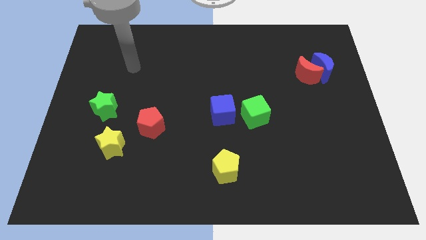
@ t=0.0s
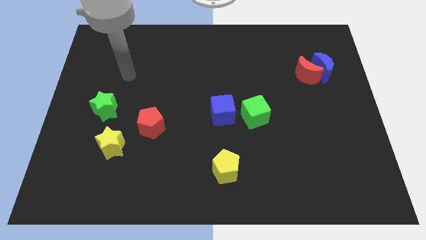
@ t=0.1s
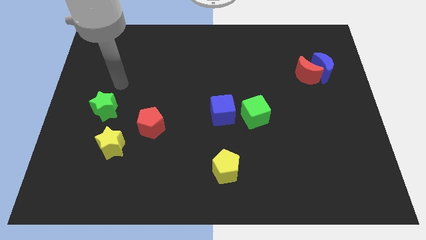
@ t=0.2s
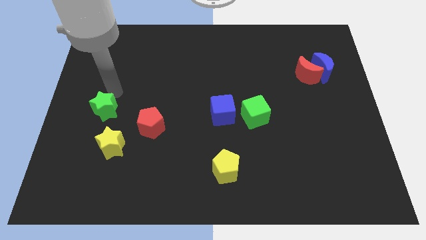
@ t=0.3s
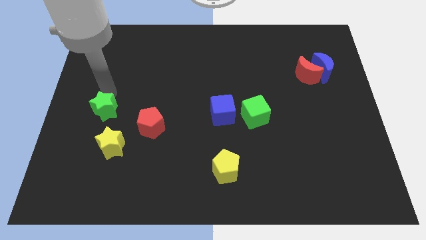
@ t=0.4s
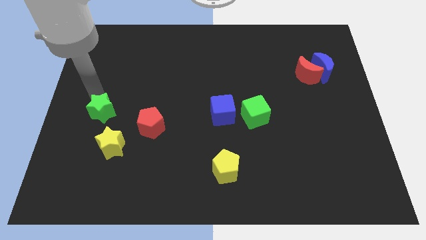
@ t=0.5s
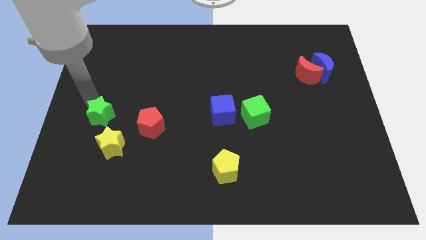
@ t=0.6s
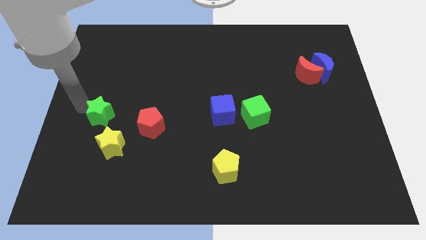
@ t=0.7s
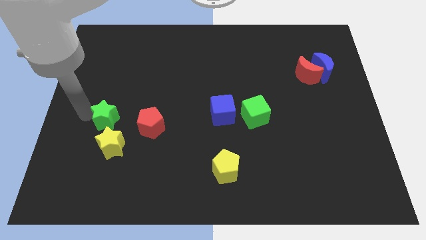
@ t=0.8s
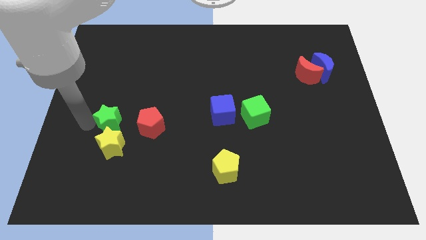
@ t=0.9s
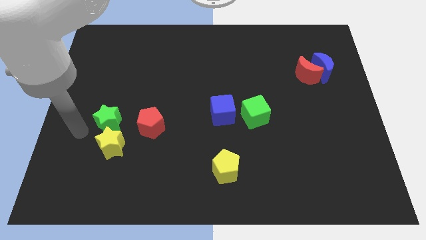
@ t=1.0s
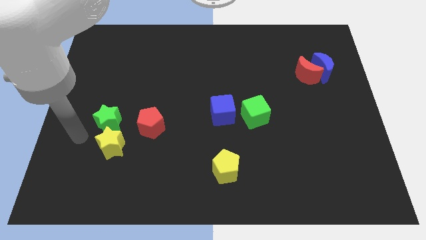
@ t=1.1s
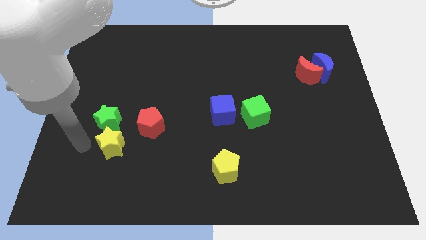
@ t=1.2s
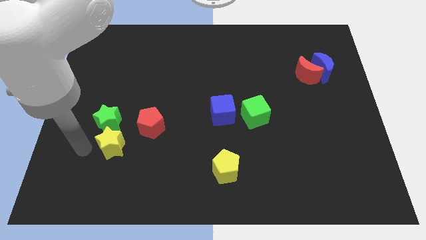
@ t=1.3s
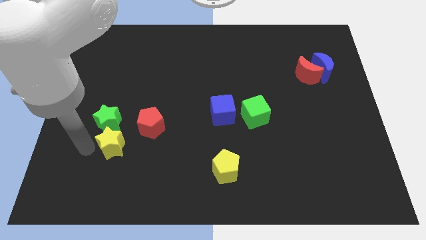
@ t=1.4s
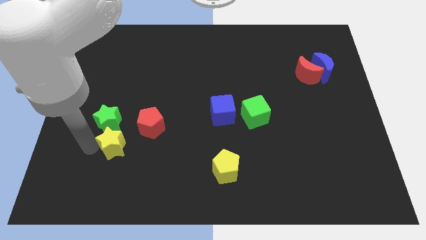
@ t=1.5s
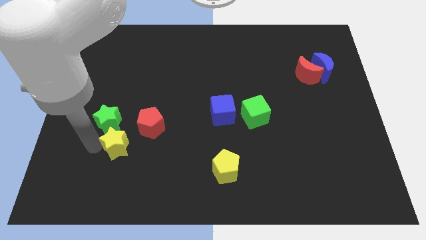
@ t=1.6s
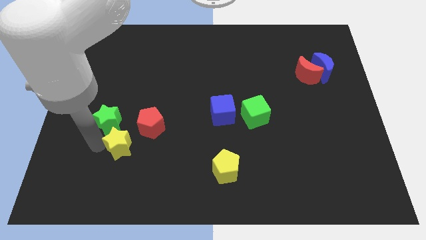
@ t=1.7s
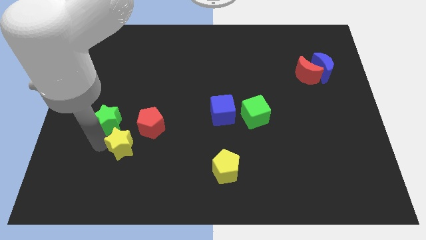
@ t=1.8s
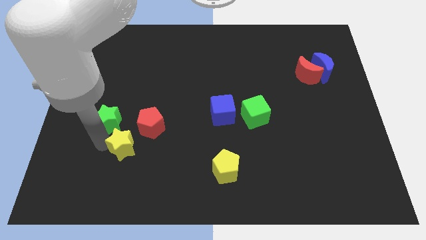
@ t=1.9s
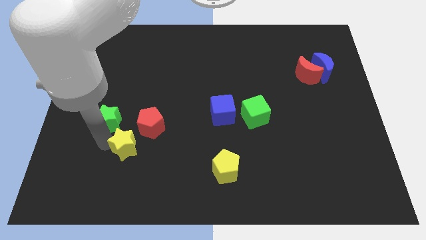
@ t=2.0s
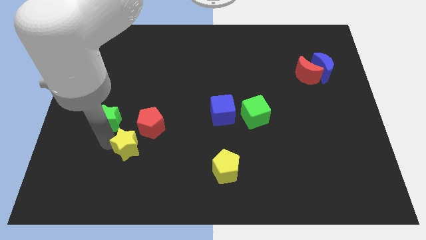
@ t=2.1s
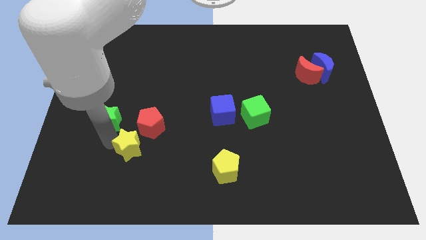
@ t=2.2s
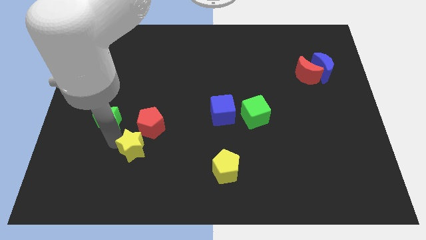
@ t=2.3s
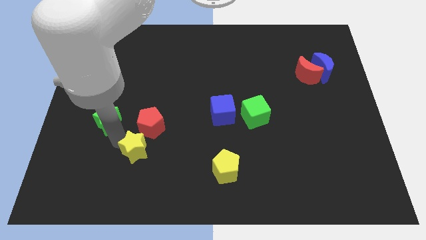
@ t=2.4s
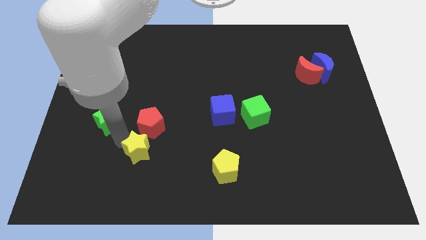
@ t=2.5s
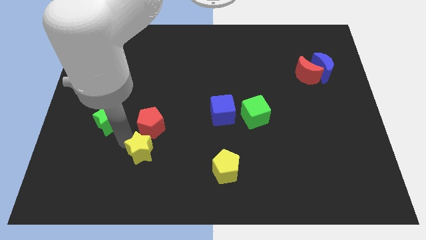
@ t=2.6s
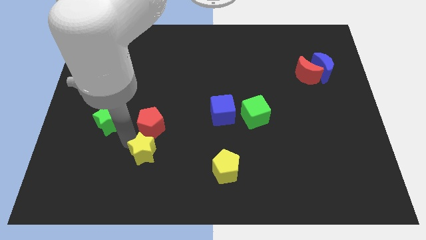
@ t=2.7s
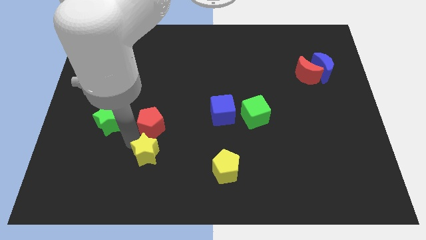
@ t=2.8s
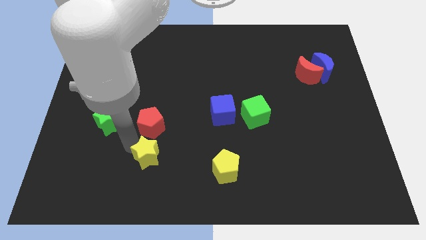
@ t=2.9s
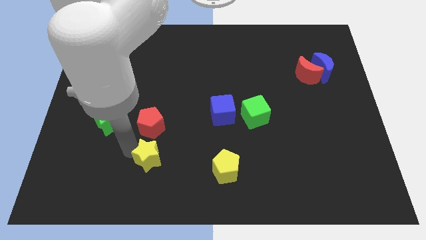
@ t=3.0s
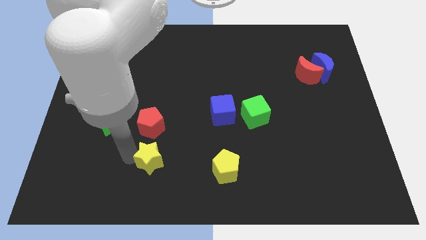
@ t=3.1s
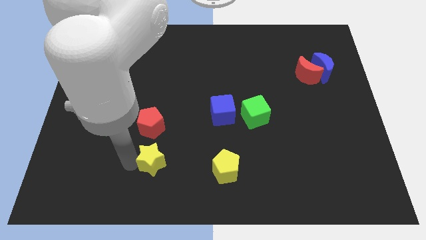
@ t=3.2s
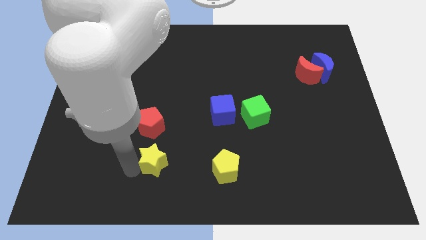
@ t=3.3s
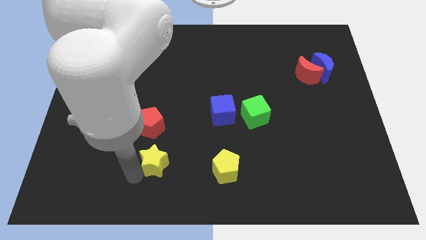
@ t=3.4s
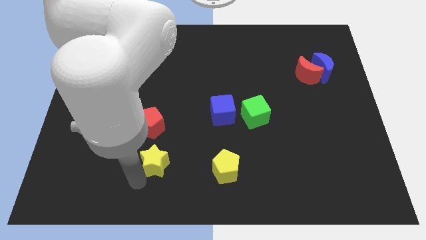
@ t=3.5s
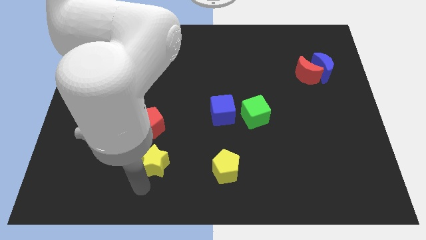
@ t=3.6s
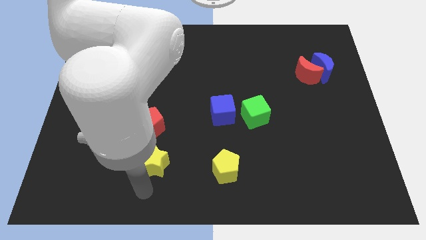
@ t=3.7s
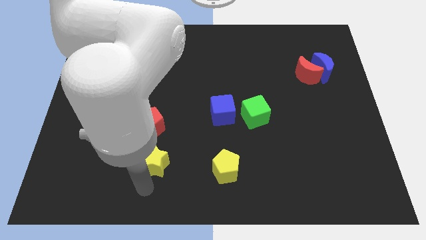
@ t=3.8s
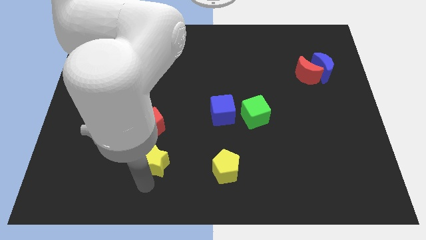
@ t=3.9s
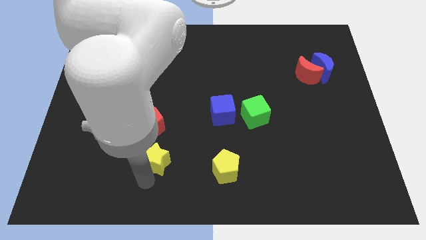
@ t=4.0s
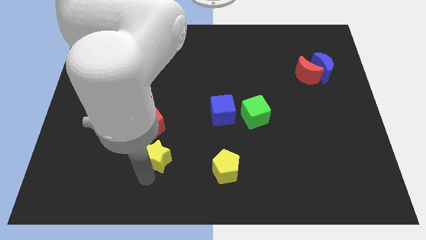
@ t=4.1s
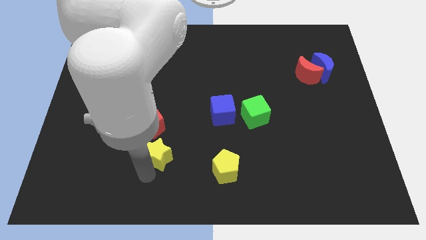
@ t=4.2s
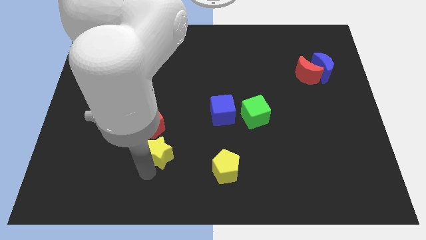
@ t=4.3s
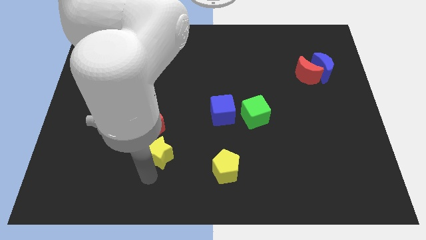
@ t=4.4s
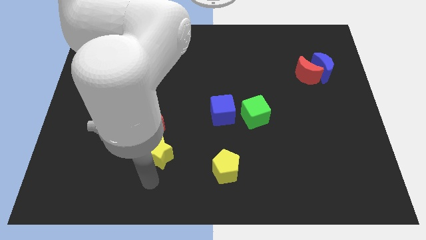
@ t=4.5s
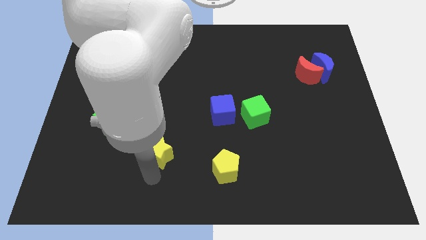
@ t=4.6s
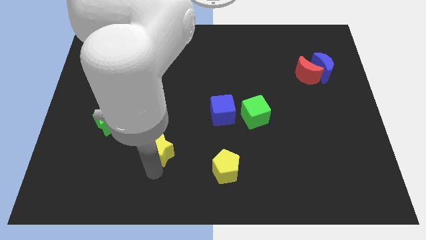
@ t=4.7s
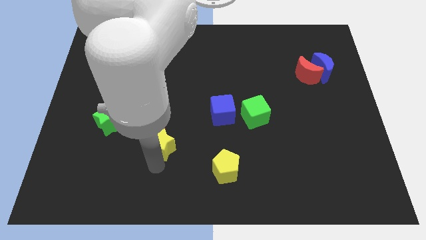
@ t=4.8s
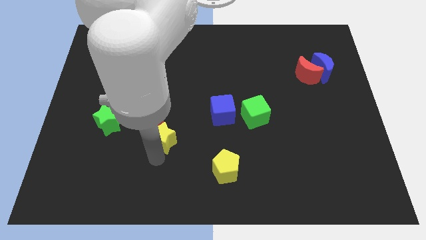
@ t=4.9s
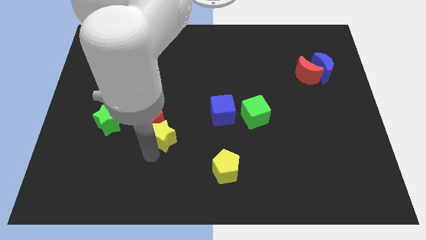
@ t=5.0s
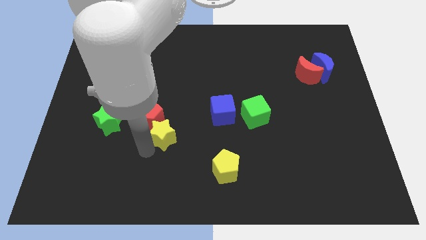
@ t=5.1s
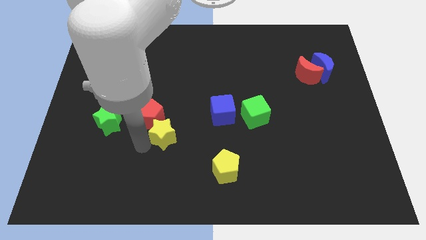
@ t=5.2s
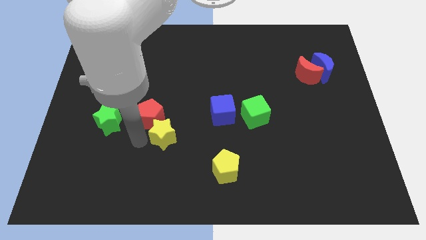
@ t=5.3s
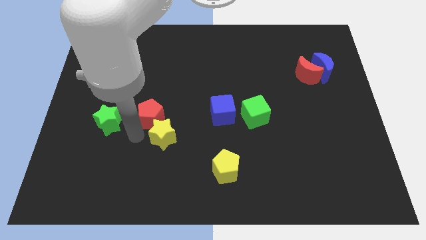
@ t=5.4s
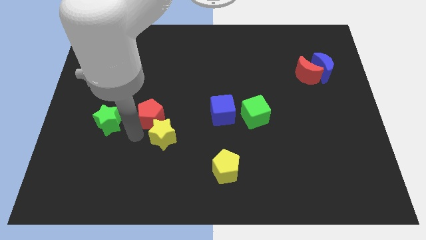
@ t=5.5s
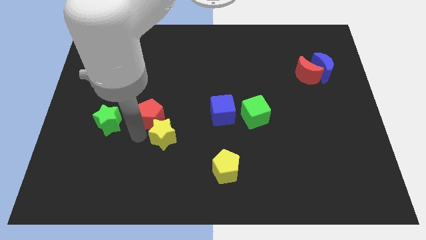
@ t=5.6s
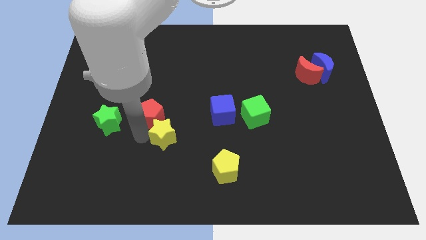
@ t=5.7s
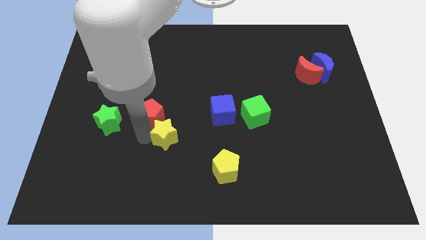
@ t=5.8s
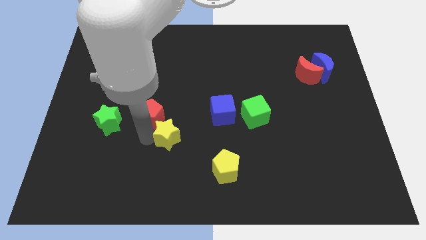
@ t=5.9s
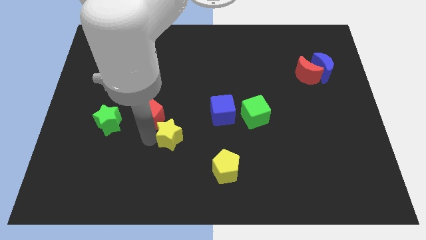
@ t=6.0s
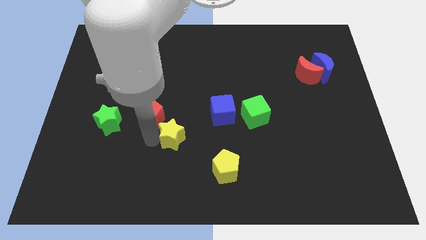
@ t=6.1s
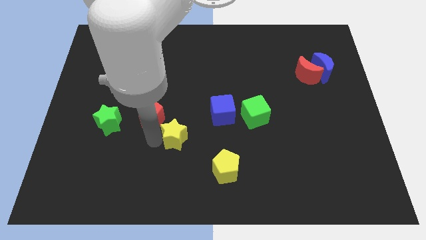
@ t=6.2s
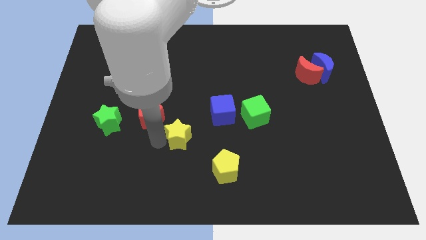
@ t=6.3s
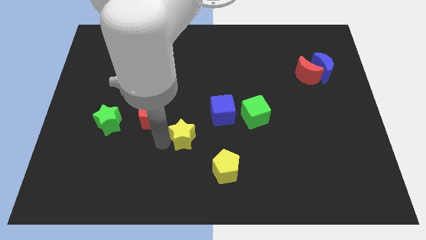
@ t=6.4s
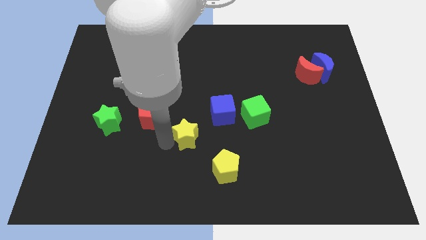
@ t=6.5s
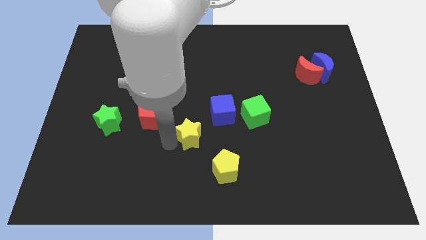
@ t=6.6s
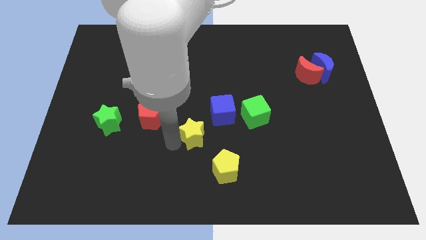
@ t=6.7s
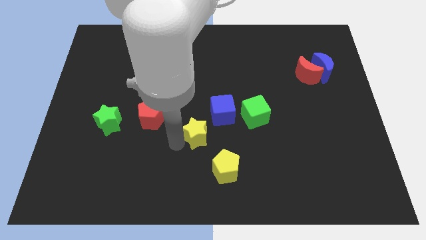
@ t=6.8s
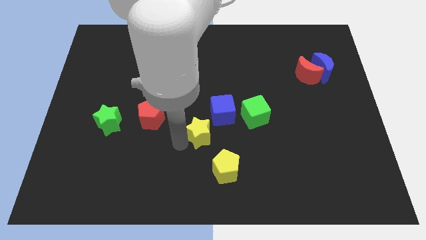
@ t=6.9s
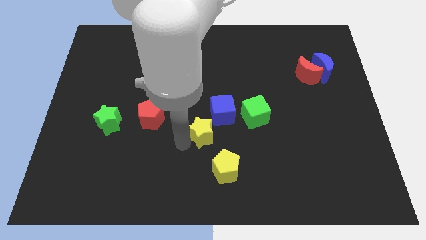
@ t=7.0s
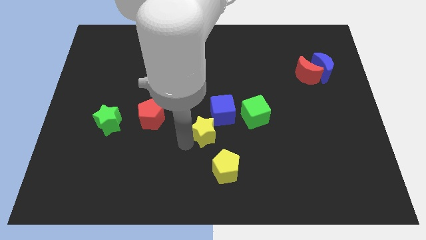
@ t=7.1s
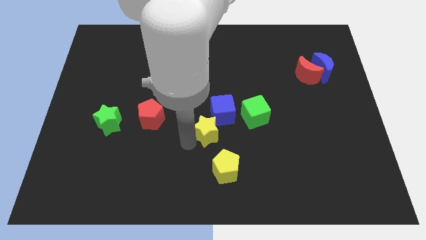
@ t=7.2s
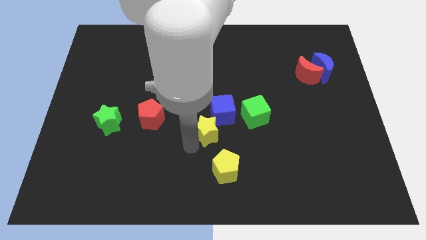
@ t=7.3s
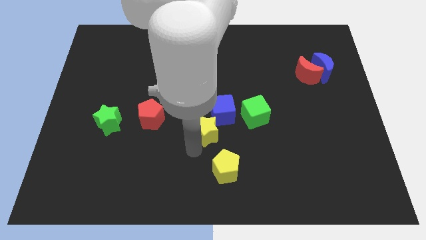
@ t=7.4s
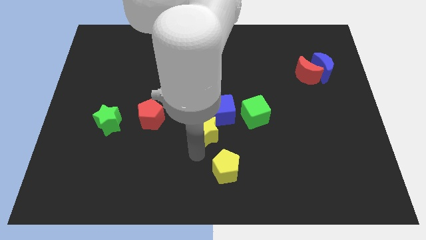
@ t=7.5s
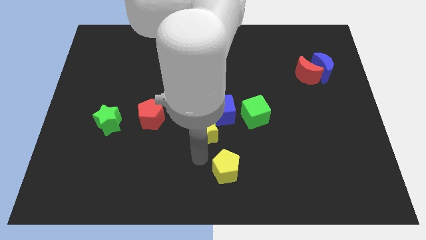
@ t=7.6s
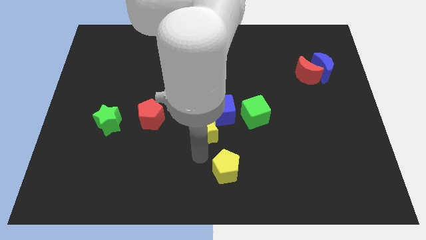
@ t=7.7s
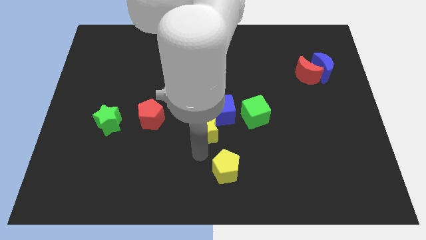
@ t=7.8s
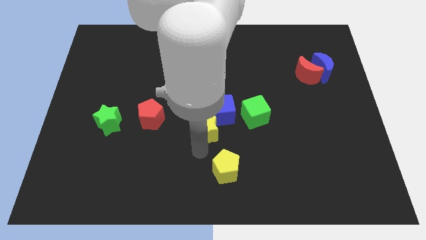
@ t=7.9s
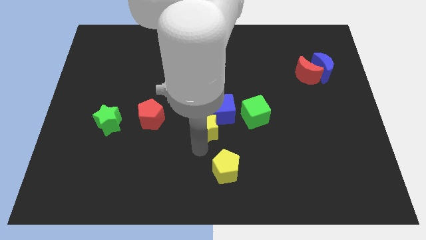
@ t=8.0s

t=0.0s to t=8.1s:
move the yellow star to the blue cube
